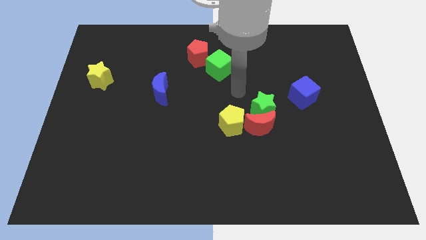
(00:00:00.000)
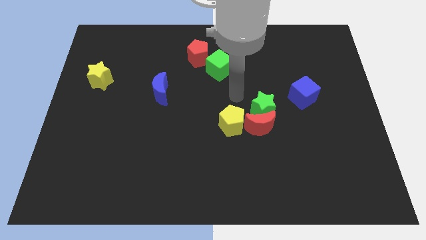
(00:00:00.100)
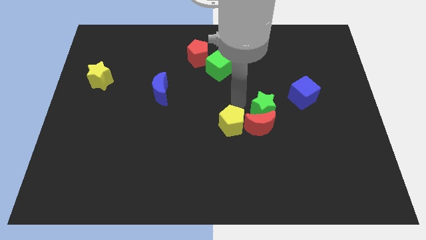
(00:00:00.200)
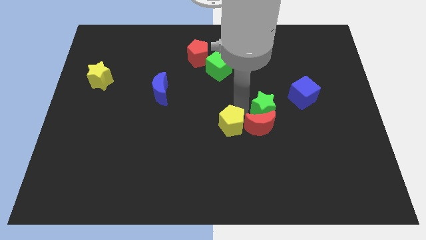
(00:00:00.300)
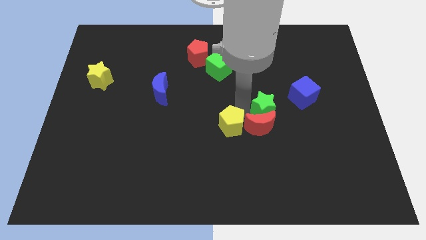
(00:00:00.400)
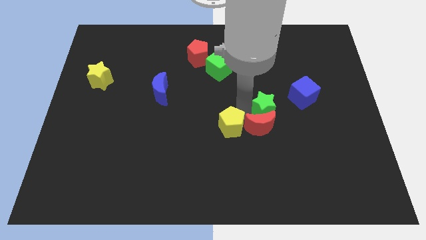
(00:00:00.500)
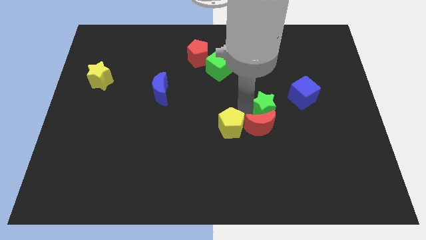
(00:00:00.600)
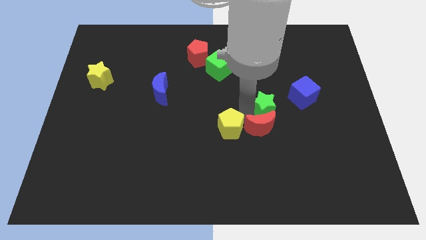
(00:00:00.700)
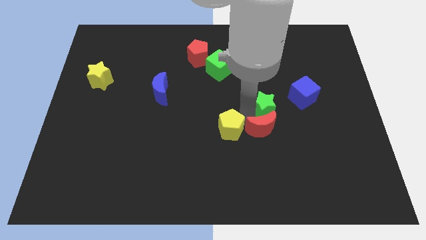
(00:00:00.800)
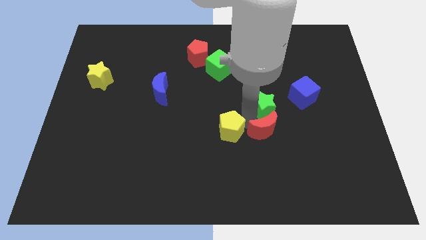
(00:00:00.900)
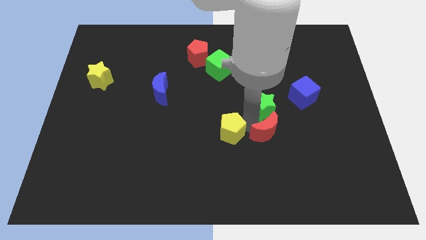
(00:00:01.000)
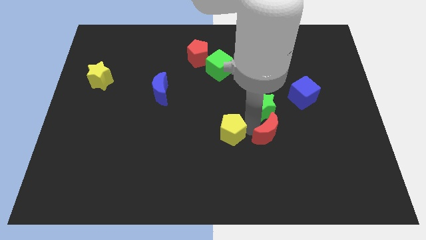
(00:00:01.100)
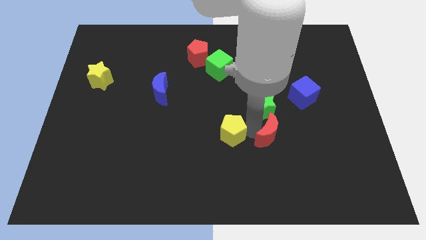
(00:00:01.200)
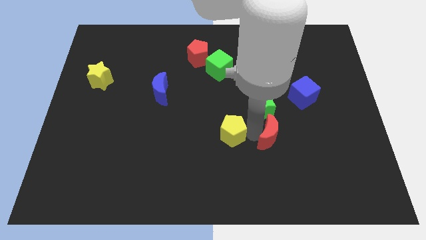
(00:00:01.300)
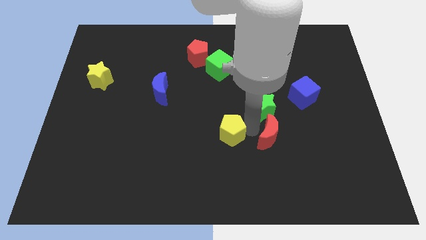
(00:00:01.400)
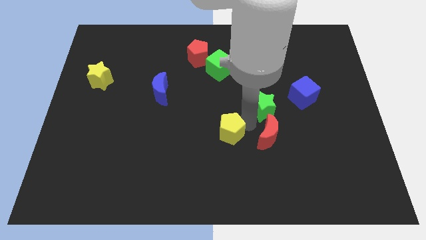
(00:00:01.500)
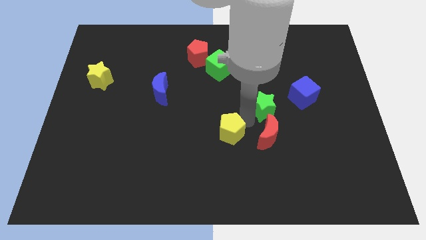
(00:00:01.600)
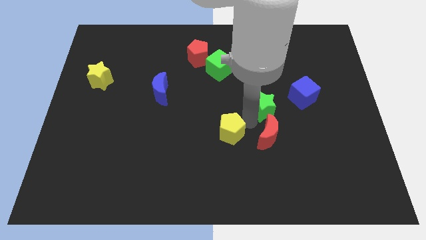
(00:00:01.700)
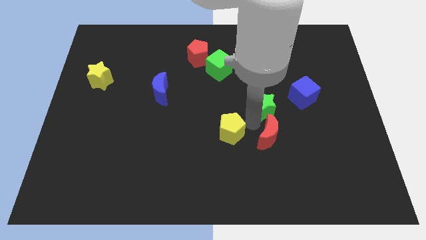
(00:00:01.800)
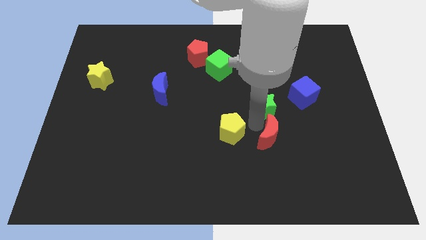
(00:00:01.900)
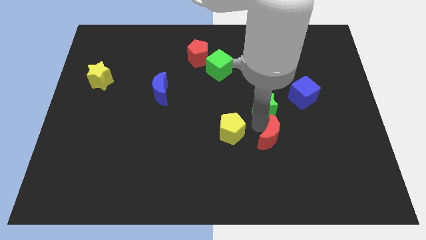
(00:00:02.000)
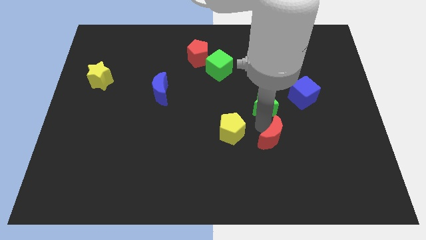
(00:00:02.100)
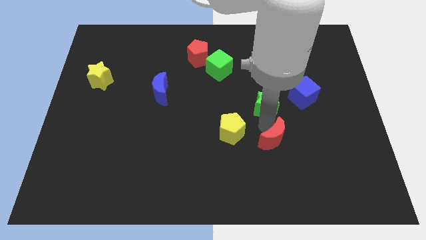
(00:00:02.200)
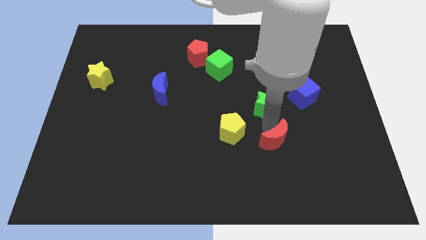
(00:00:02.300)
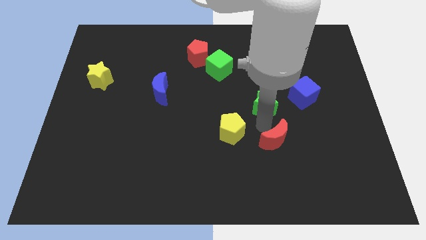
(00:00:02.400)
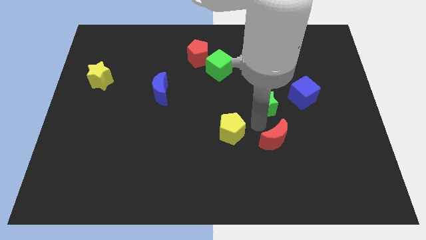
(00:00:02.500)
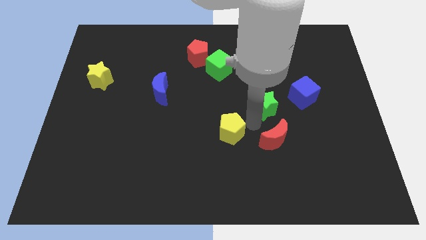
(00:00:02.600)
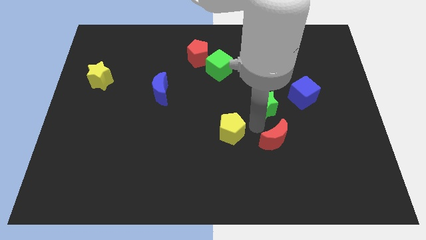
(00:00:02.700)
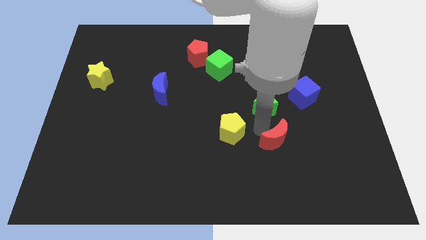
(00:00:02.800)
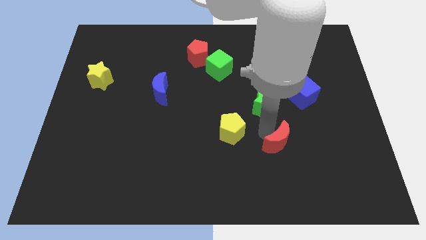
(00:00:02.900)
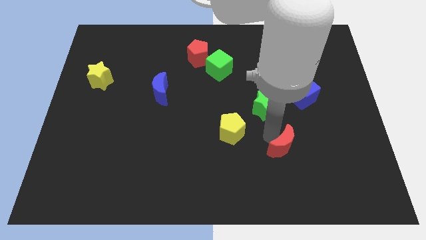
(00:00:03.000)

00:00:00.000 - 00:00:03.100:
separate the red moon from the green star and yellow pentagon

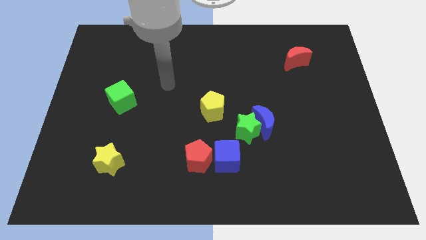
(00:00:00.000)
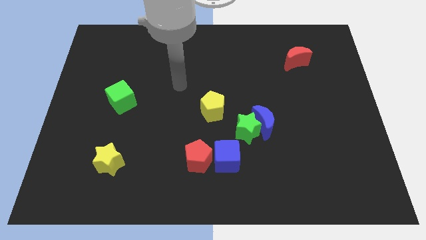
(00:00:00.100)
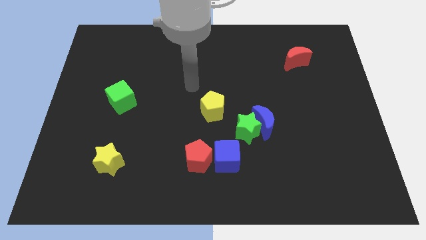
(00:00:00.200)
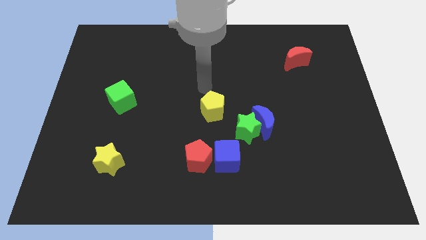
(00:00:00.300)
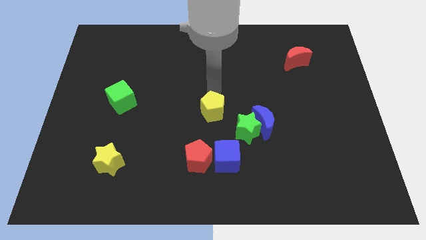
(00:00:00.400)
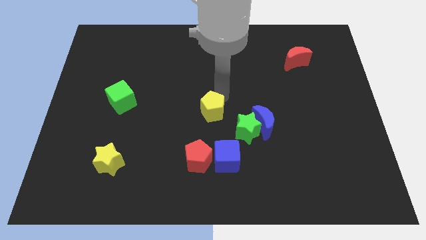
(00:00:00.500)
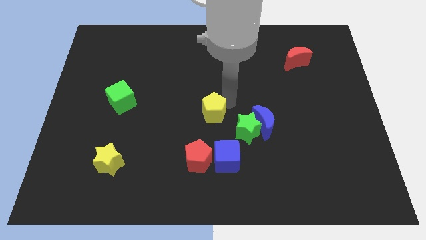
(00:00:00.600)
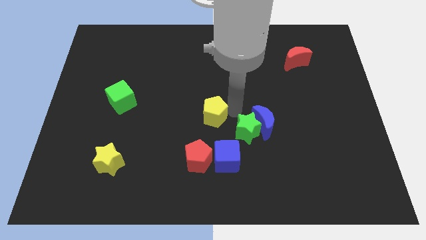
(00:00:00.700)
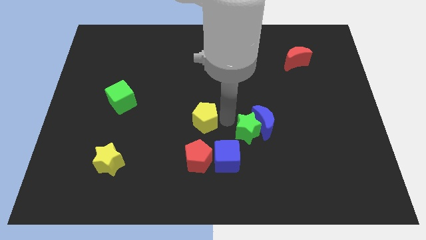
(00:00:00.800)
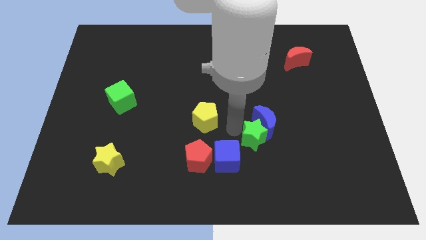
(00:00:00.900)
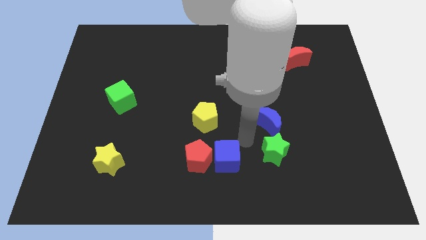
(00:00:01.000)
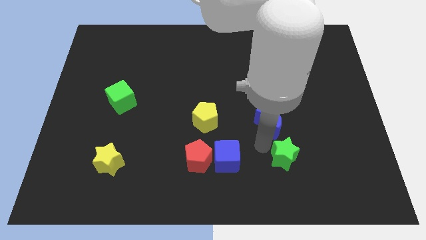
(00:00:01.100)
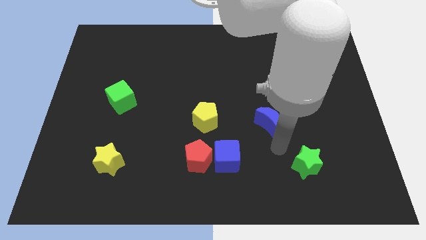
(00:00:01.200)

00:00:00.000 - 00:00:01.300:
move the blue moon away from the green star

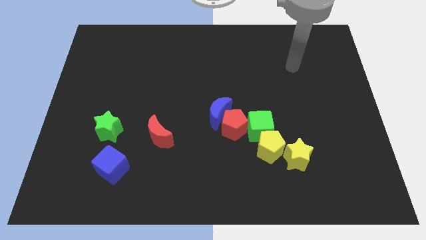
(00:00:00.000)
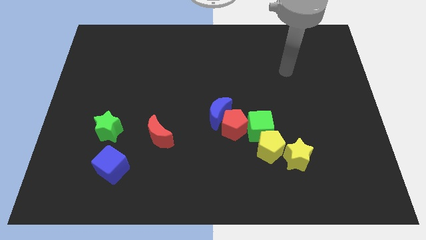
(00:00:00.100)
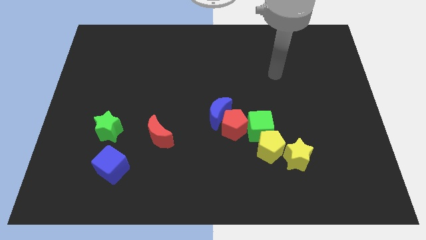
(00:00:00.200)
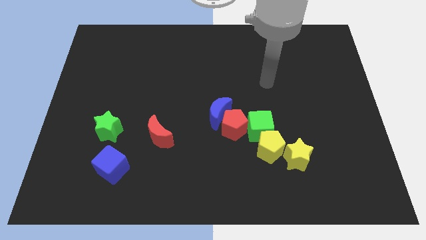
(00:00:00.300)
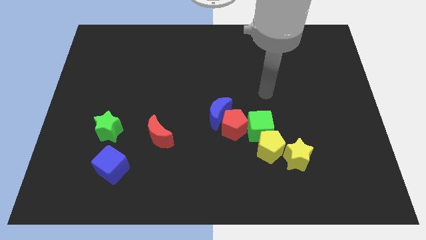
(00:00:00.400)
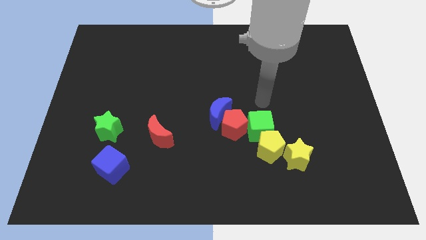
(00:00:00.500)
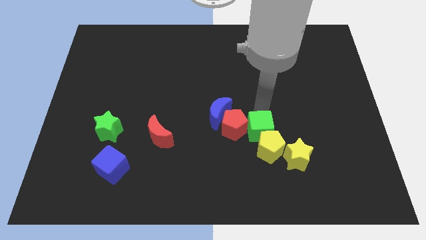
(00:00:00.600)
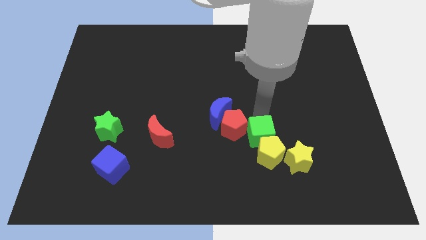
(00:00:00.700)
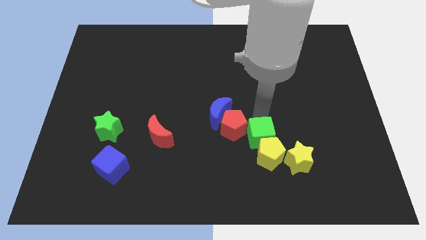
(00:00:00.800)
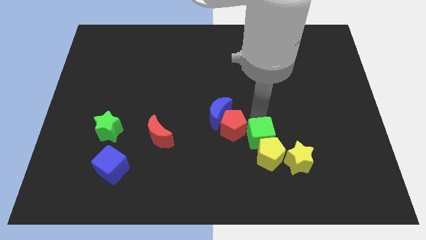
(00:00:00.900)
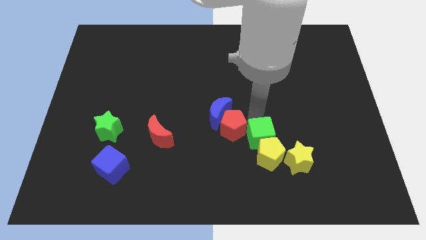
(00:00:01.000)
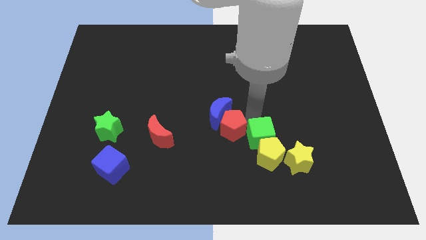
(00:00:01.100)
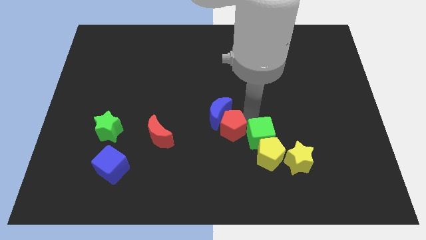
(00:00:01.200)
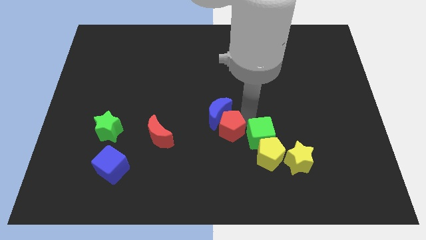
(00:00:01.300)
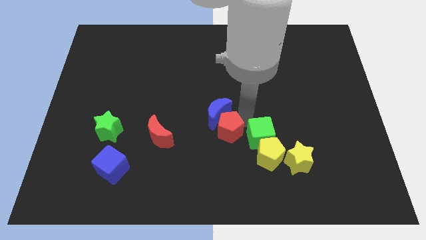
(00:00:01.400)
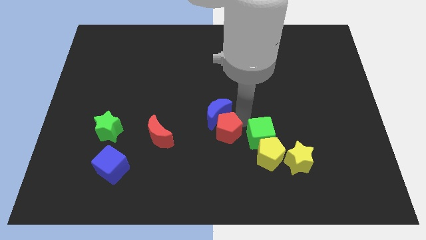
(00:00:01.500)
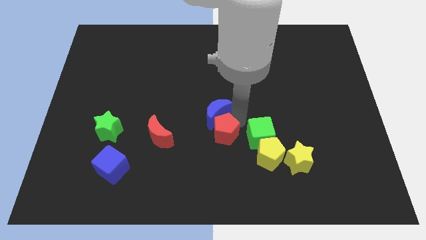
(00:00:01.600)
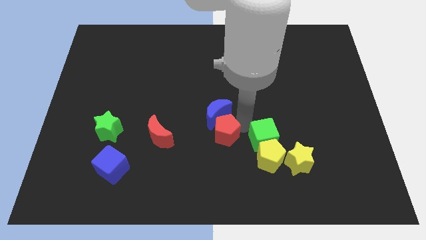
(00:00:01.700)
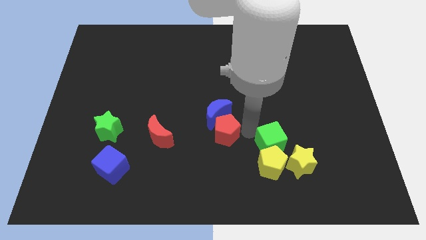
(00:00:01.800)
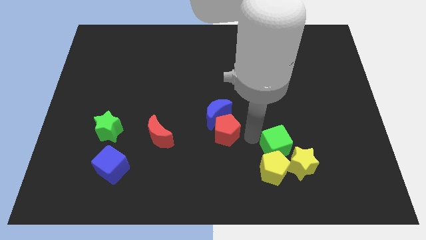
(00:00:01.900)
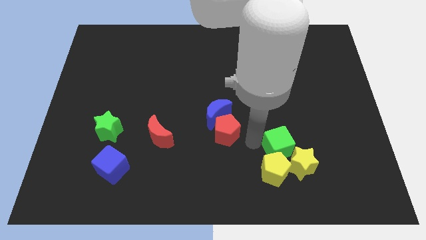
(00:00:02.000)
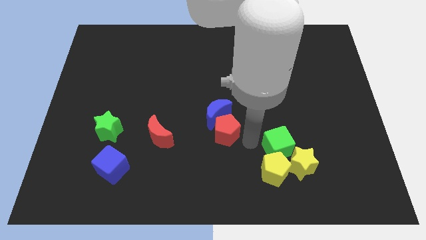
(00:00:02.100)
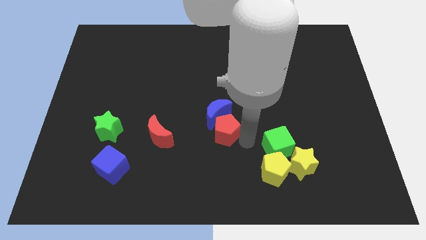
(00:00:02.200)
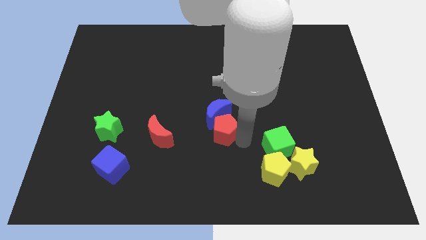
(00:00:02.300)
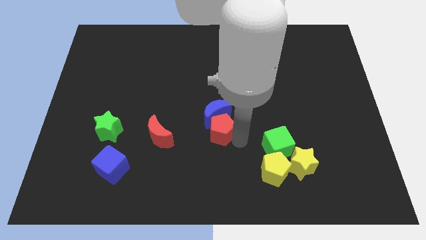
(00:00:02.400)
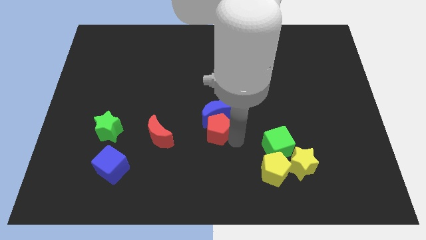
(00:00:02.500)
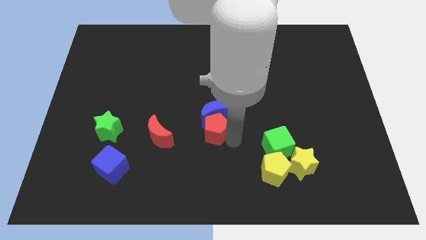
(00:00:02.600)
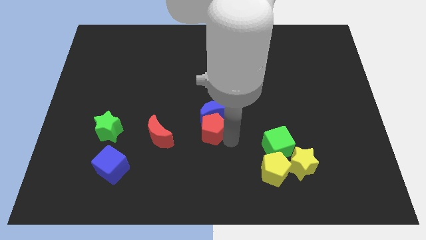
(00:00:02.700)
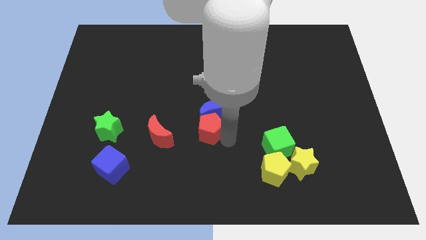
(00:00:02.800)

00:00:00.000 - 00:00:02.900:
separate the red pentagon from the group

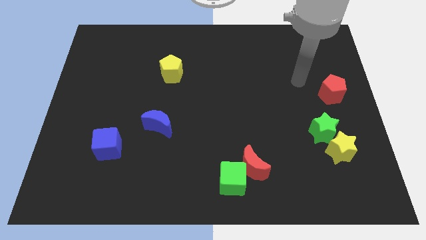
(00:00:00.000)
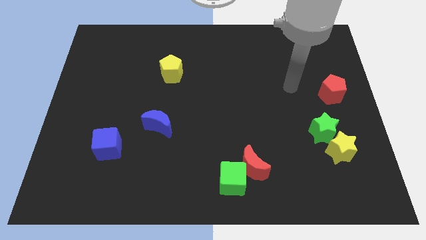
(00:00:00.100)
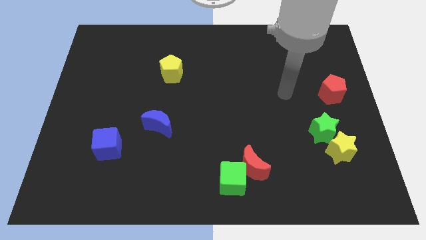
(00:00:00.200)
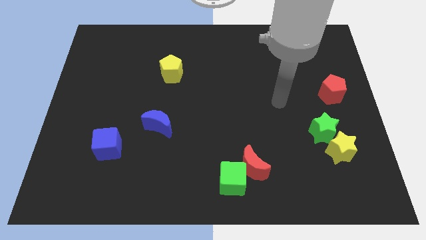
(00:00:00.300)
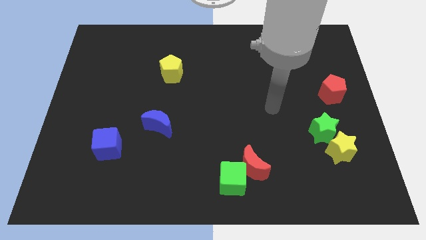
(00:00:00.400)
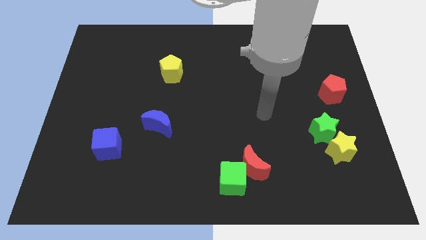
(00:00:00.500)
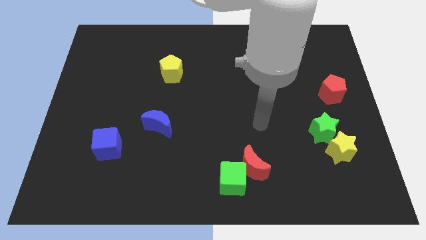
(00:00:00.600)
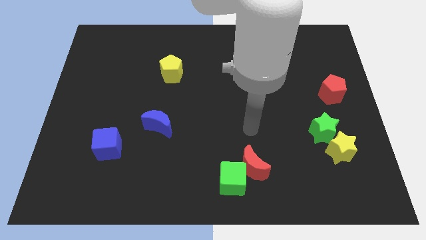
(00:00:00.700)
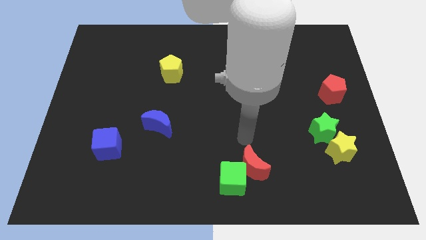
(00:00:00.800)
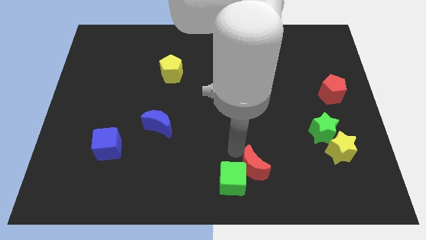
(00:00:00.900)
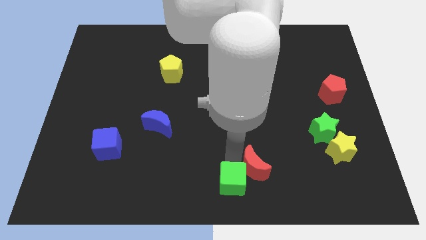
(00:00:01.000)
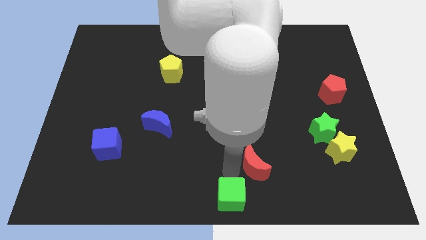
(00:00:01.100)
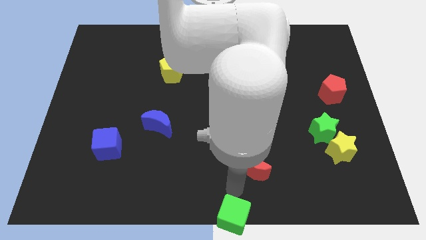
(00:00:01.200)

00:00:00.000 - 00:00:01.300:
move the red moon away from the green cube

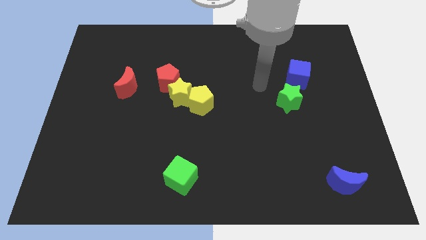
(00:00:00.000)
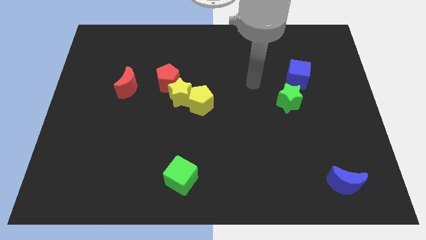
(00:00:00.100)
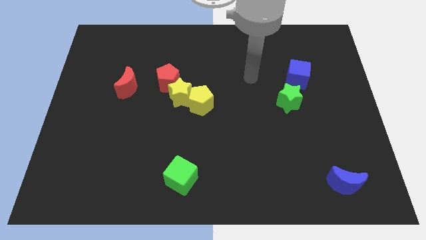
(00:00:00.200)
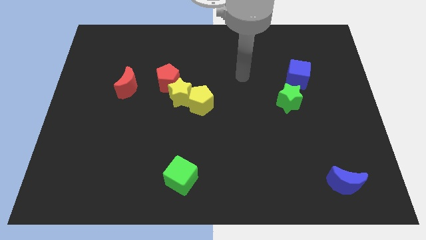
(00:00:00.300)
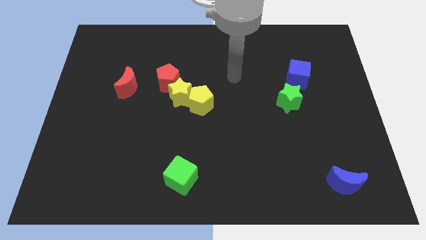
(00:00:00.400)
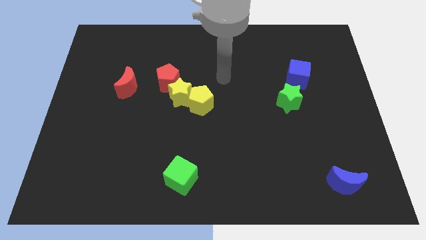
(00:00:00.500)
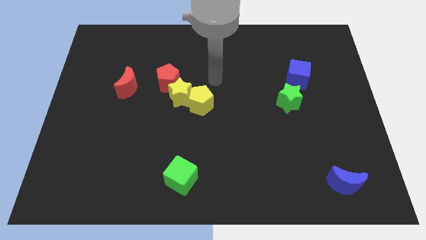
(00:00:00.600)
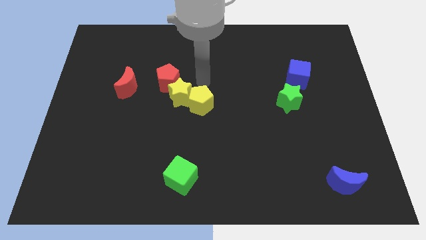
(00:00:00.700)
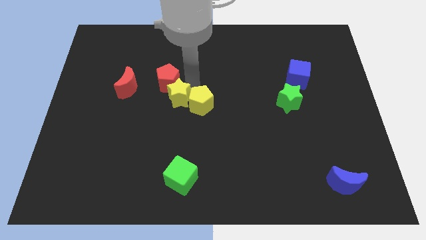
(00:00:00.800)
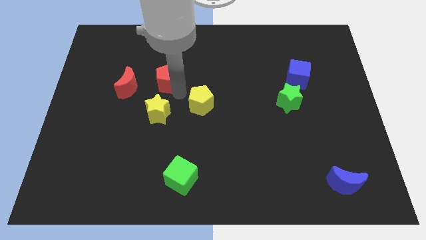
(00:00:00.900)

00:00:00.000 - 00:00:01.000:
move the yellow pentagon away from the yellow star
